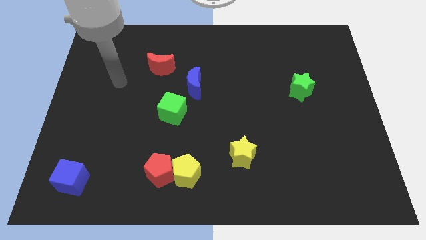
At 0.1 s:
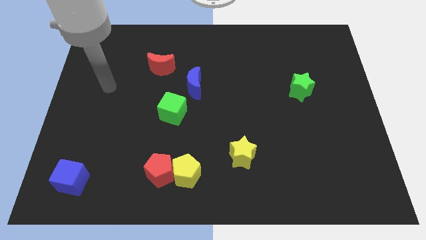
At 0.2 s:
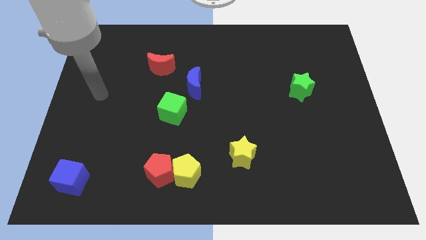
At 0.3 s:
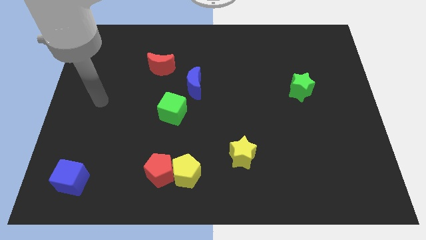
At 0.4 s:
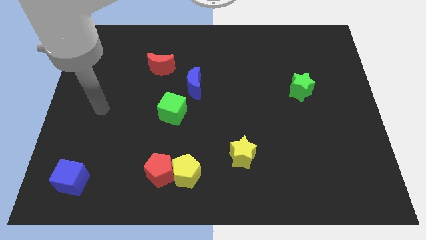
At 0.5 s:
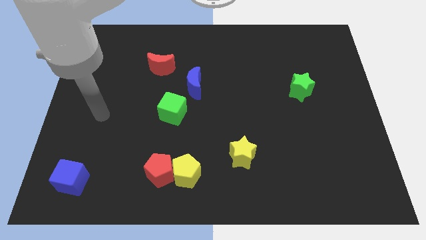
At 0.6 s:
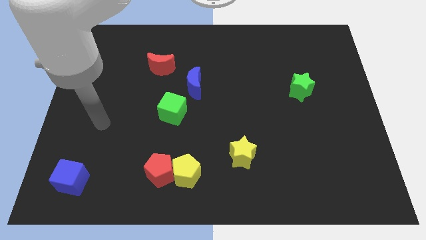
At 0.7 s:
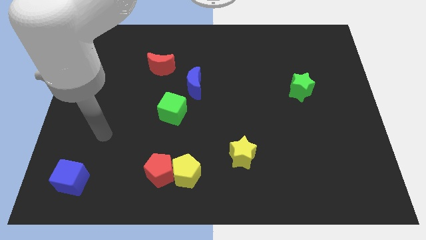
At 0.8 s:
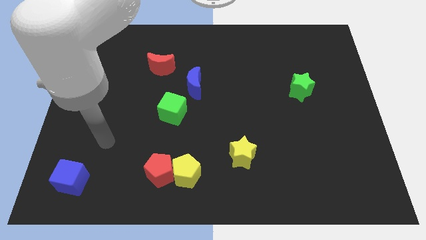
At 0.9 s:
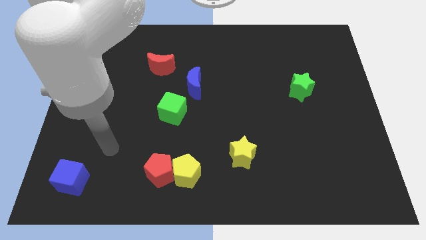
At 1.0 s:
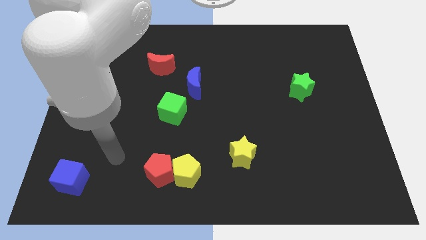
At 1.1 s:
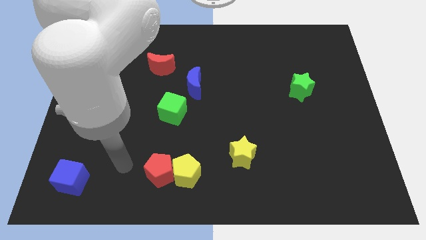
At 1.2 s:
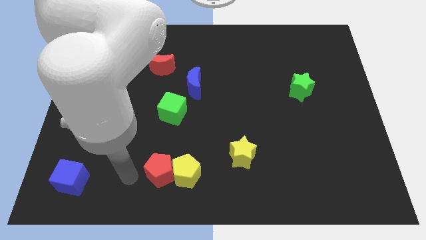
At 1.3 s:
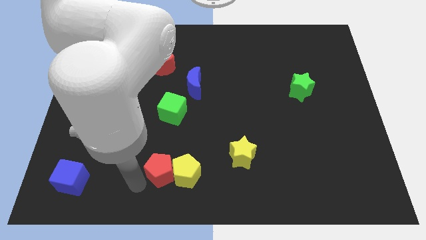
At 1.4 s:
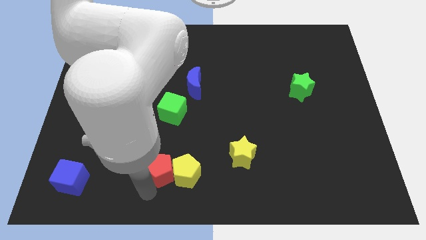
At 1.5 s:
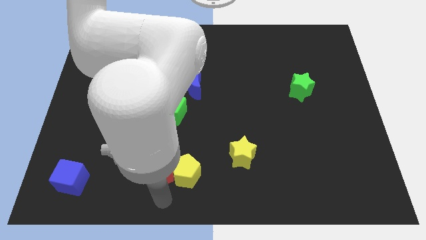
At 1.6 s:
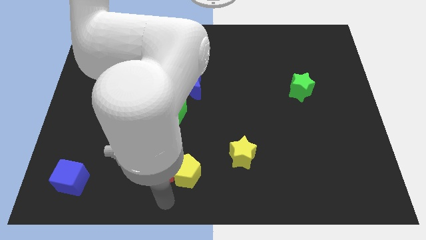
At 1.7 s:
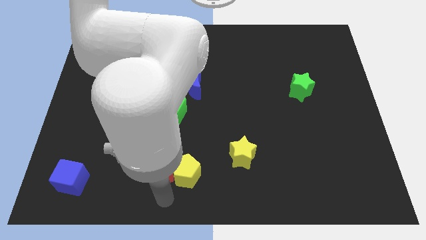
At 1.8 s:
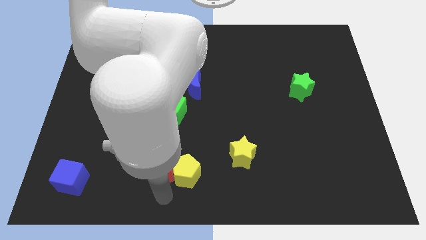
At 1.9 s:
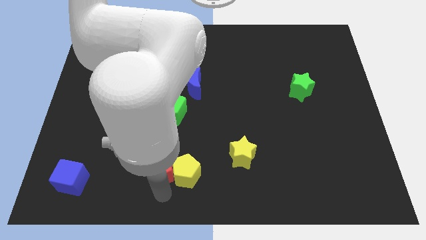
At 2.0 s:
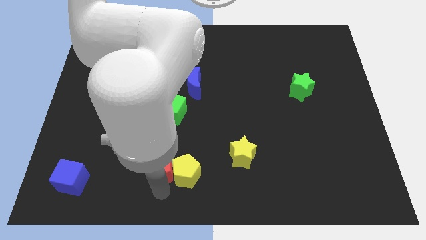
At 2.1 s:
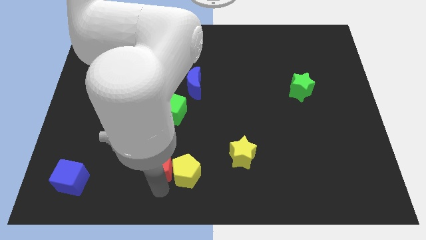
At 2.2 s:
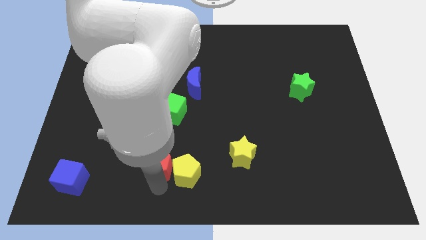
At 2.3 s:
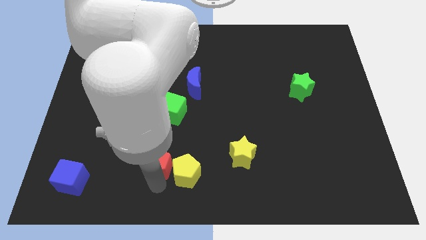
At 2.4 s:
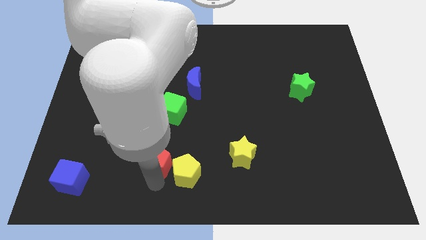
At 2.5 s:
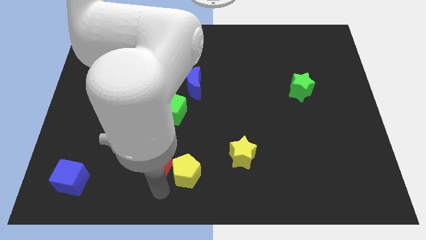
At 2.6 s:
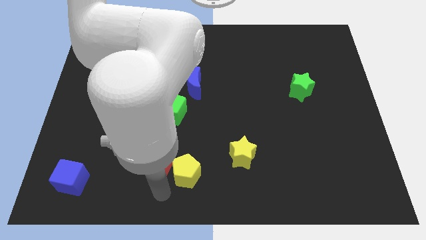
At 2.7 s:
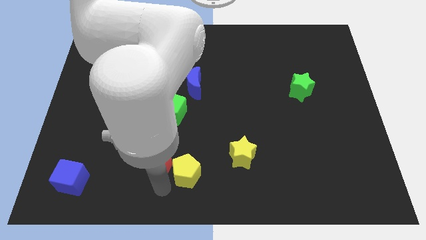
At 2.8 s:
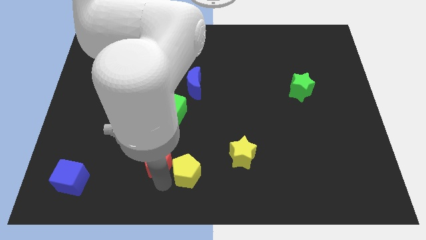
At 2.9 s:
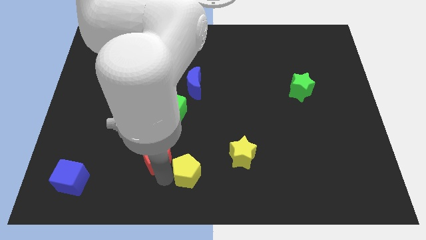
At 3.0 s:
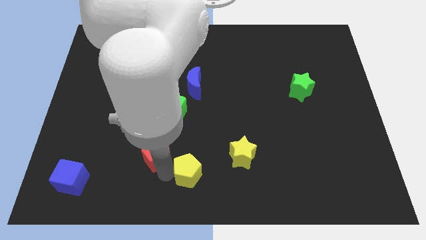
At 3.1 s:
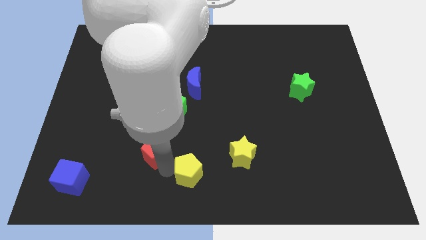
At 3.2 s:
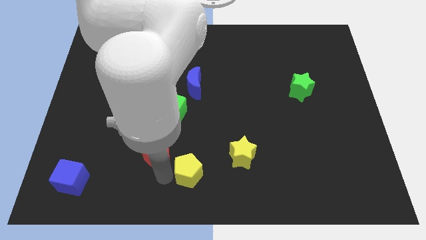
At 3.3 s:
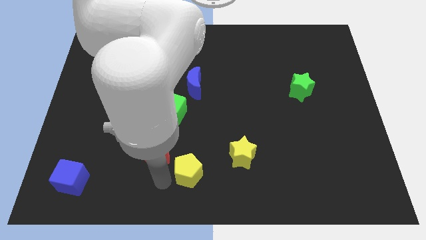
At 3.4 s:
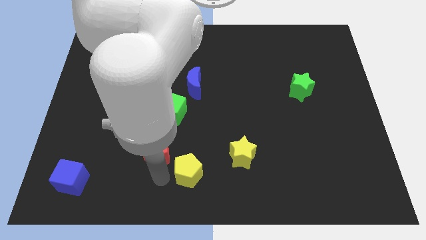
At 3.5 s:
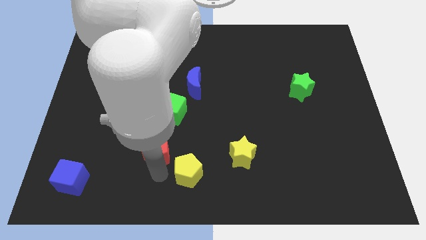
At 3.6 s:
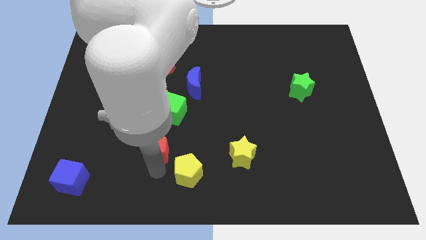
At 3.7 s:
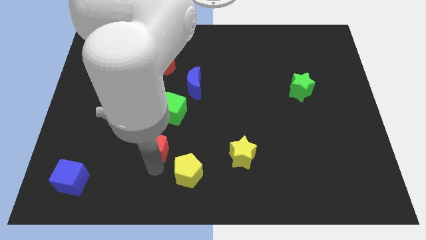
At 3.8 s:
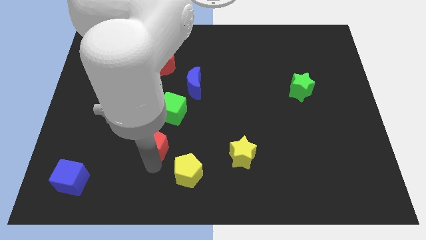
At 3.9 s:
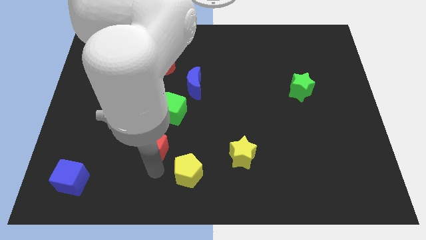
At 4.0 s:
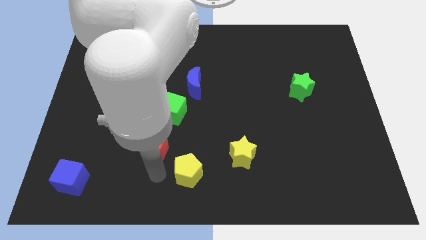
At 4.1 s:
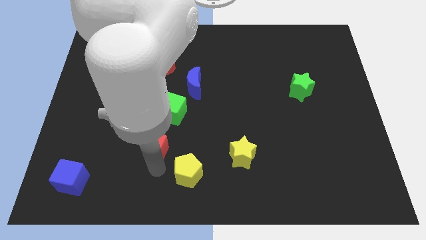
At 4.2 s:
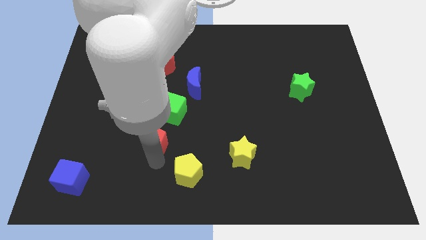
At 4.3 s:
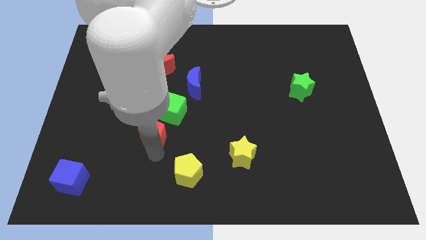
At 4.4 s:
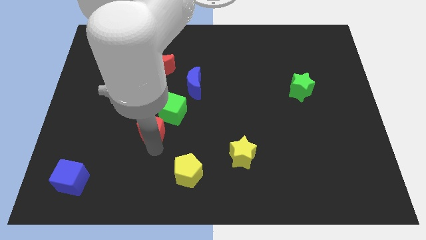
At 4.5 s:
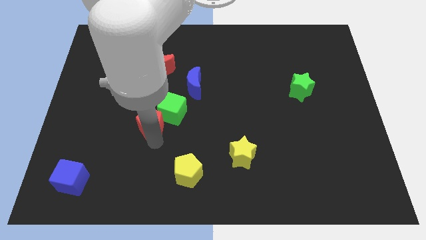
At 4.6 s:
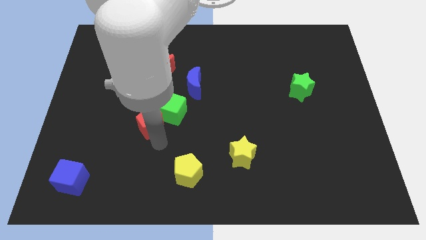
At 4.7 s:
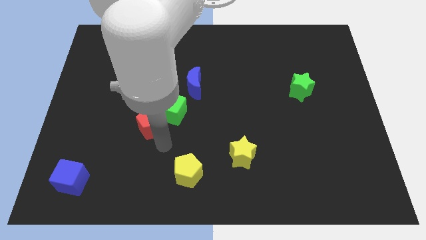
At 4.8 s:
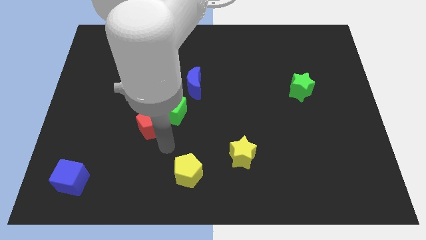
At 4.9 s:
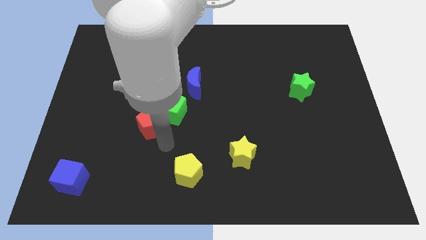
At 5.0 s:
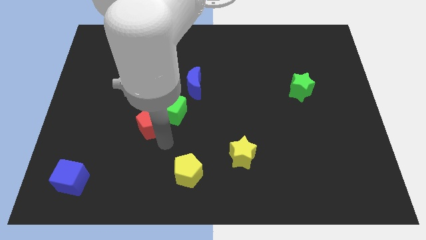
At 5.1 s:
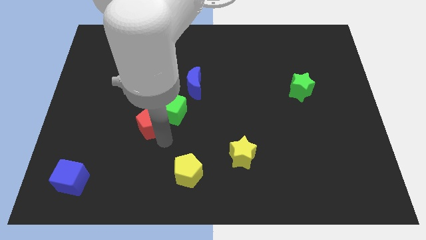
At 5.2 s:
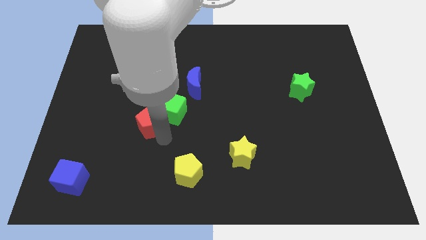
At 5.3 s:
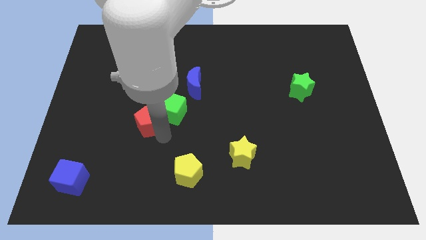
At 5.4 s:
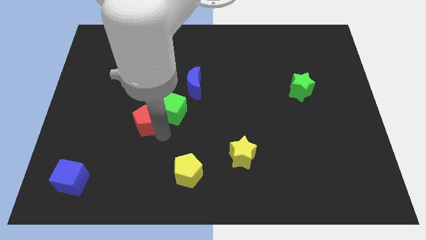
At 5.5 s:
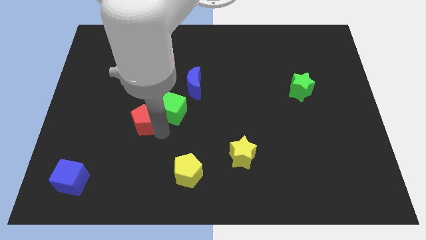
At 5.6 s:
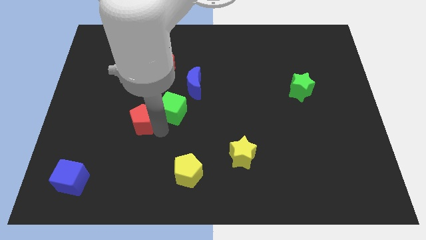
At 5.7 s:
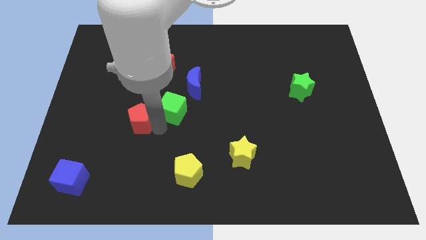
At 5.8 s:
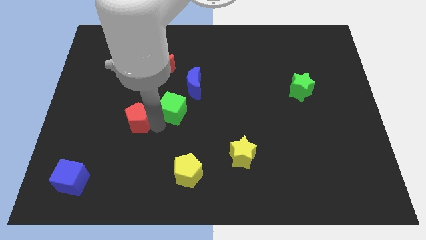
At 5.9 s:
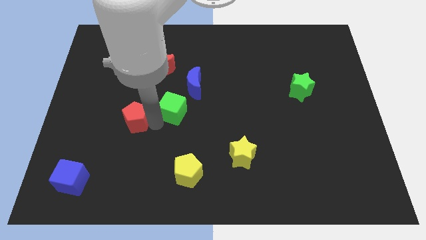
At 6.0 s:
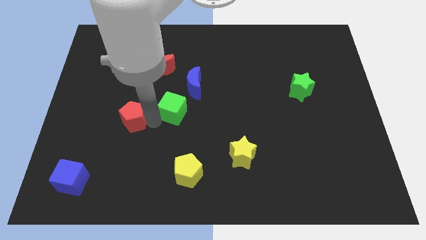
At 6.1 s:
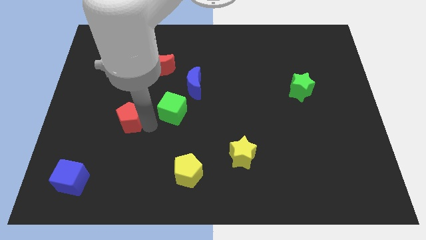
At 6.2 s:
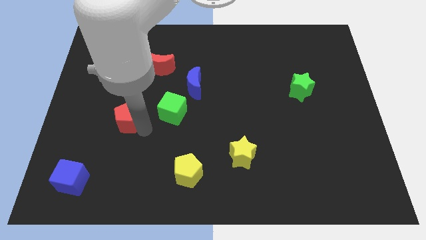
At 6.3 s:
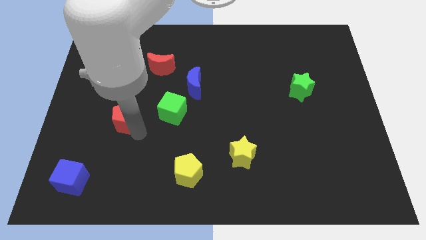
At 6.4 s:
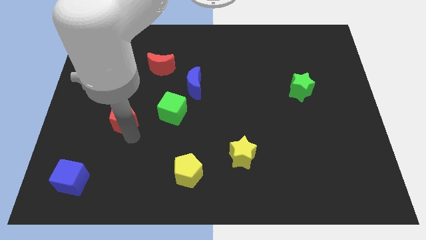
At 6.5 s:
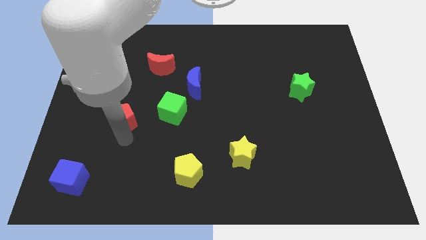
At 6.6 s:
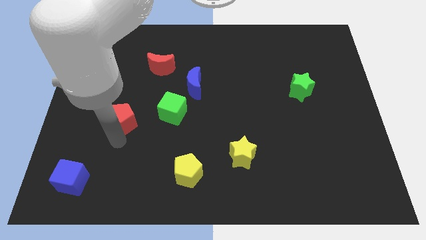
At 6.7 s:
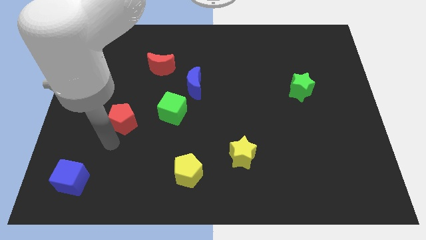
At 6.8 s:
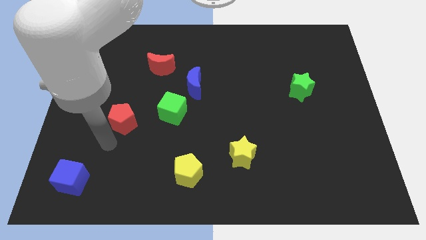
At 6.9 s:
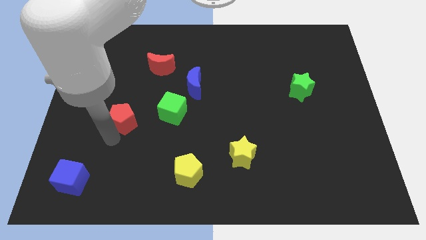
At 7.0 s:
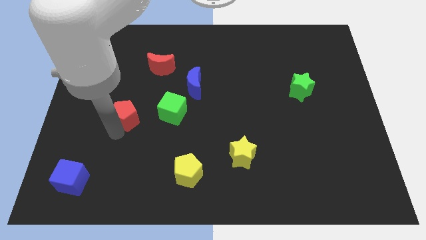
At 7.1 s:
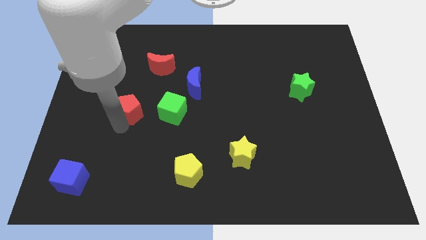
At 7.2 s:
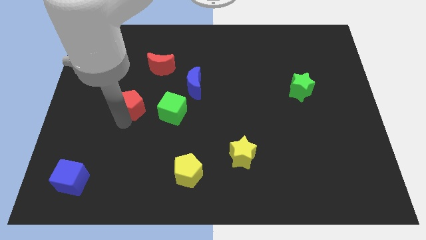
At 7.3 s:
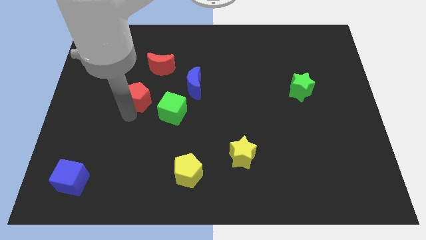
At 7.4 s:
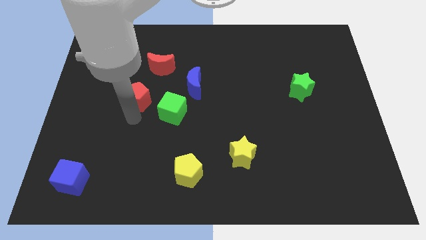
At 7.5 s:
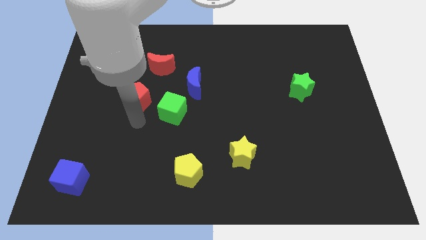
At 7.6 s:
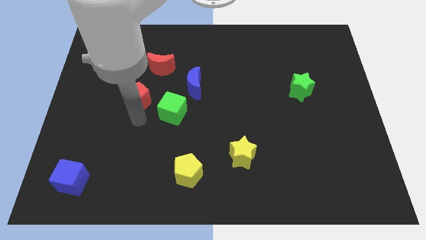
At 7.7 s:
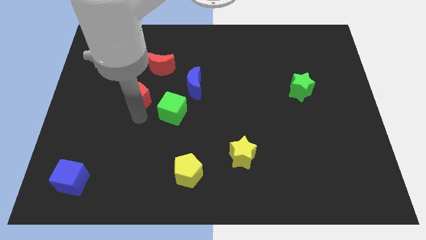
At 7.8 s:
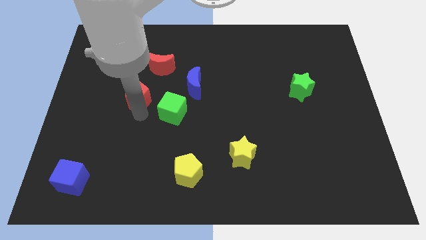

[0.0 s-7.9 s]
slide the red pentagon to the bottom left side of the red moon
